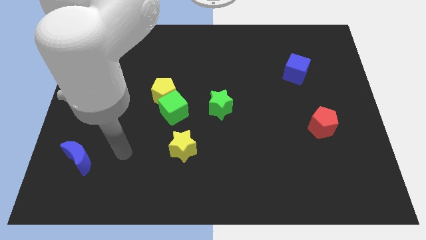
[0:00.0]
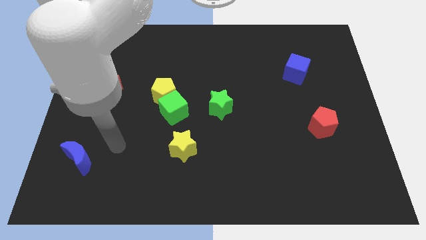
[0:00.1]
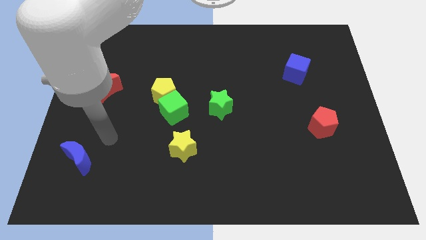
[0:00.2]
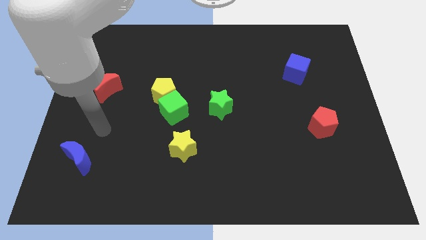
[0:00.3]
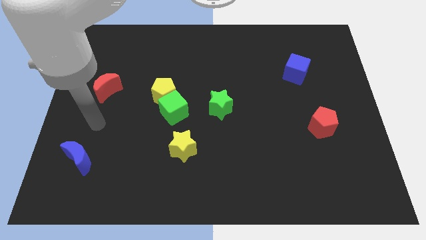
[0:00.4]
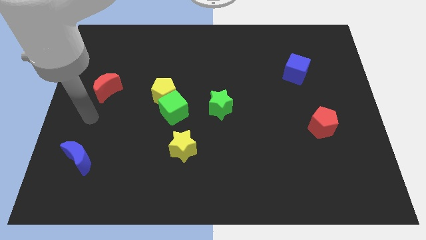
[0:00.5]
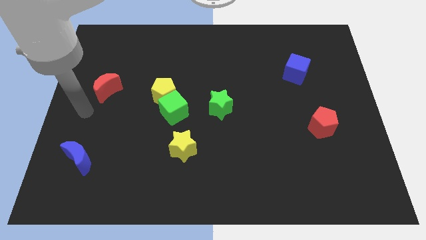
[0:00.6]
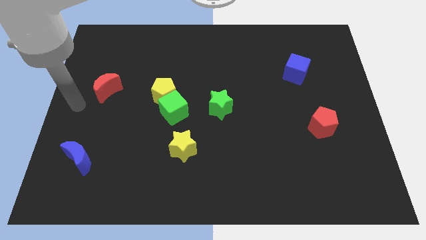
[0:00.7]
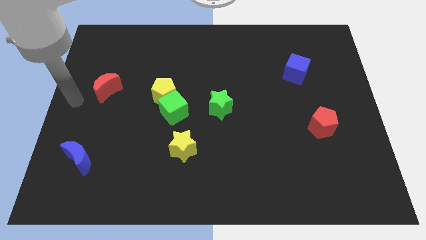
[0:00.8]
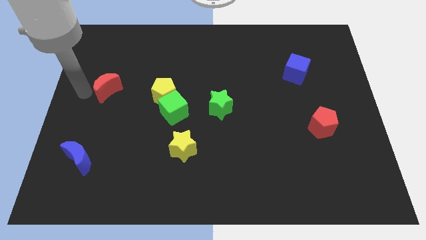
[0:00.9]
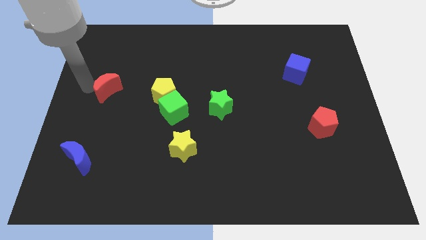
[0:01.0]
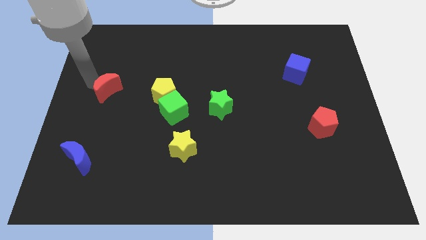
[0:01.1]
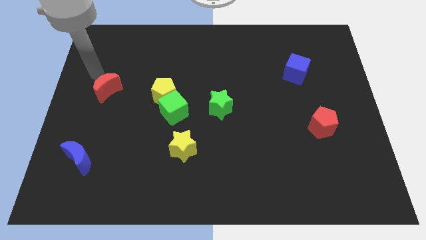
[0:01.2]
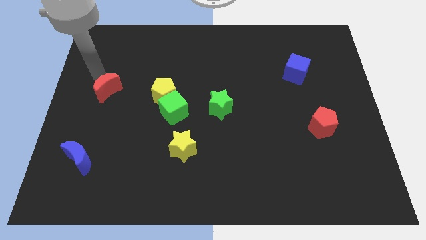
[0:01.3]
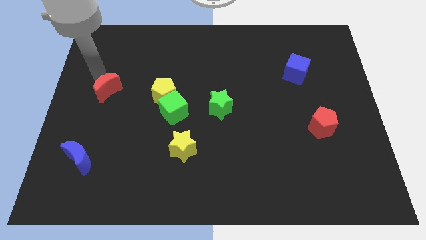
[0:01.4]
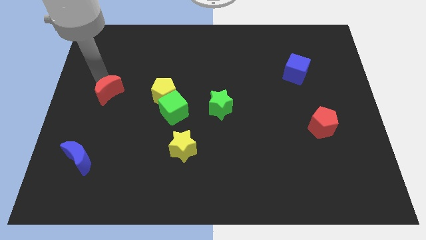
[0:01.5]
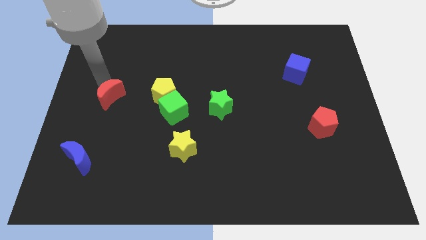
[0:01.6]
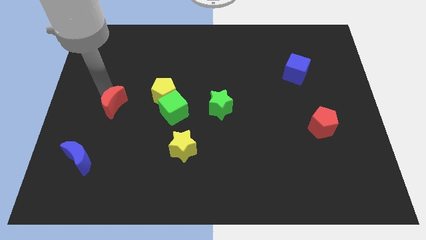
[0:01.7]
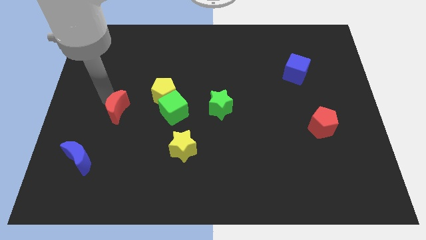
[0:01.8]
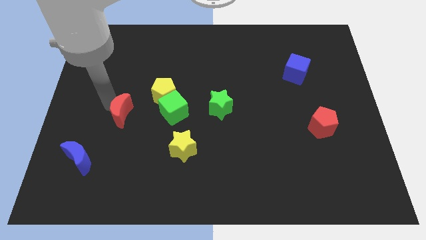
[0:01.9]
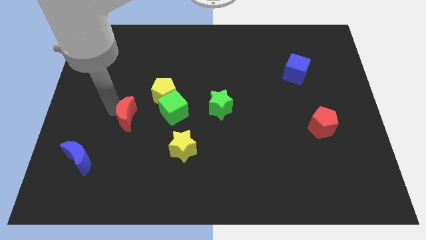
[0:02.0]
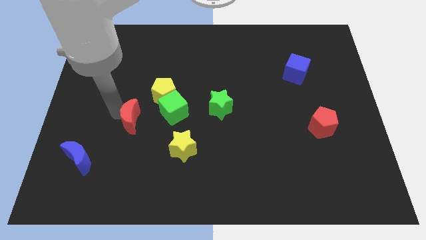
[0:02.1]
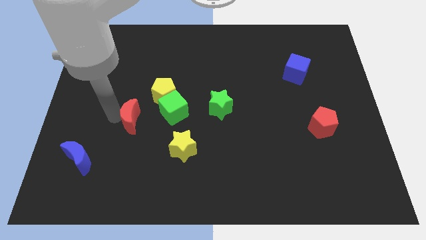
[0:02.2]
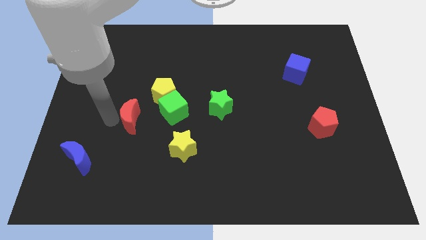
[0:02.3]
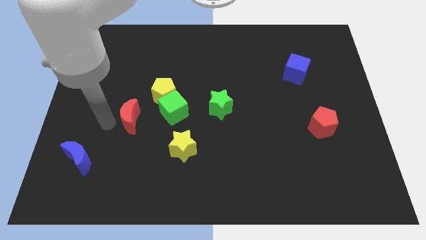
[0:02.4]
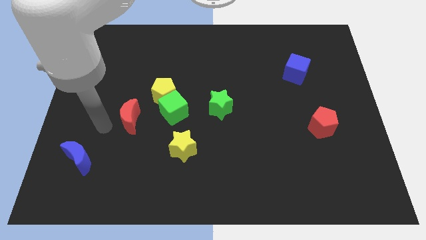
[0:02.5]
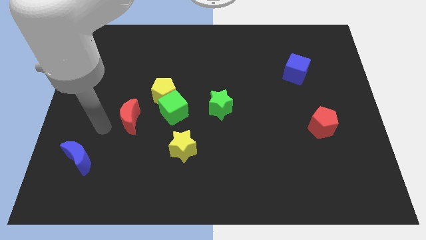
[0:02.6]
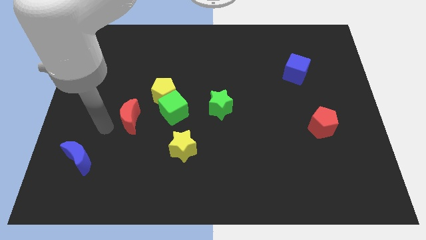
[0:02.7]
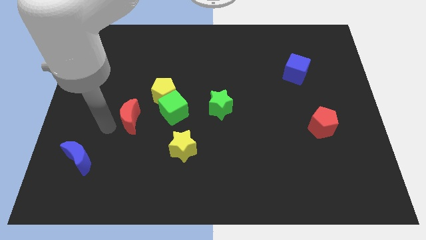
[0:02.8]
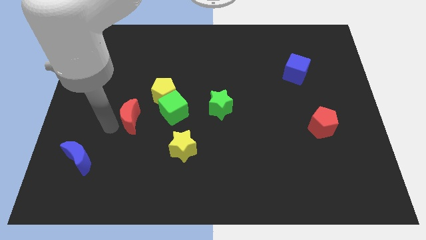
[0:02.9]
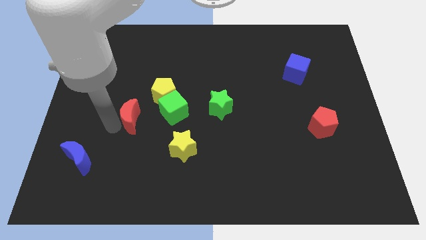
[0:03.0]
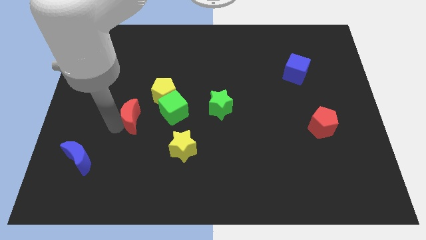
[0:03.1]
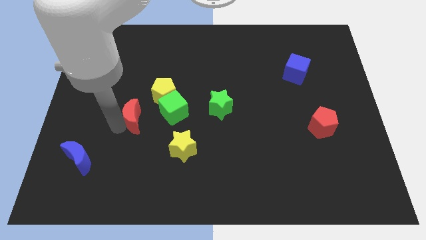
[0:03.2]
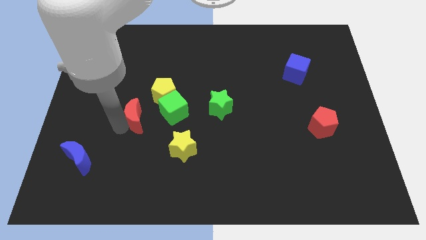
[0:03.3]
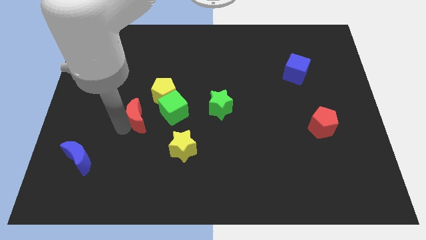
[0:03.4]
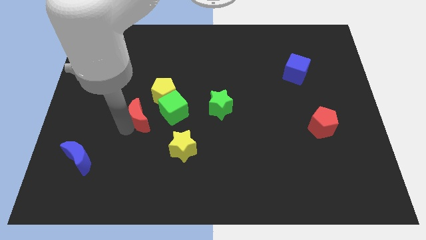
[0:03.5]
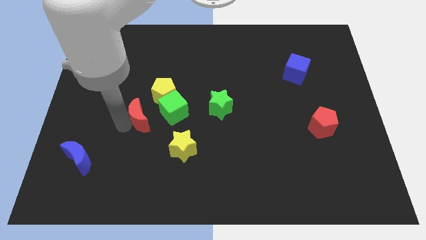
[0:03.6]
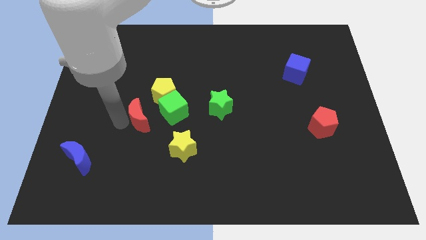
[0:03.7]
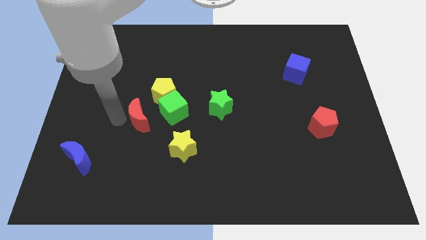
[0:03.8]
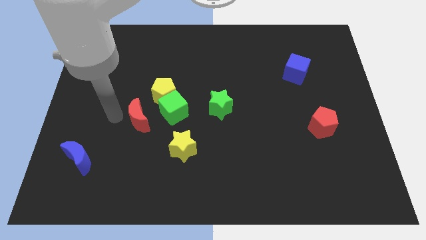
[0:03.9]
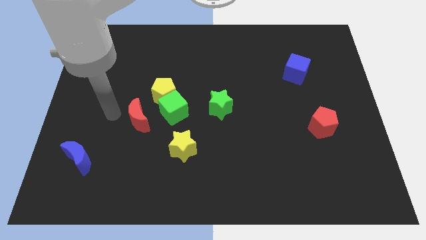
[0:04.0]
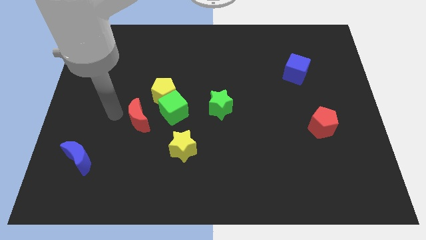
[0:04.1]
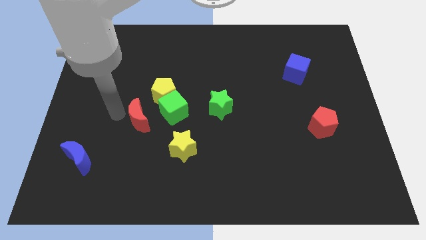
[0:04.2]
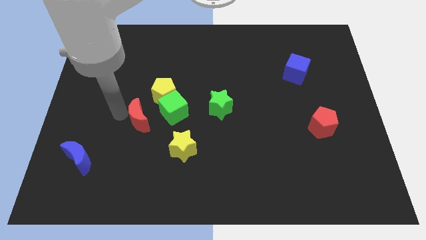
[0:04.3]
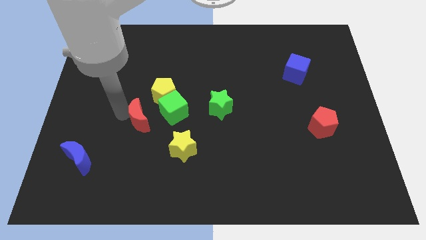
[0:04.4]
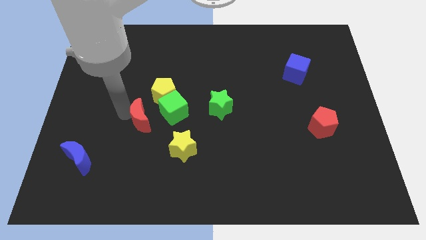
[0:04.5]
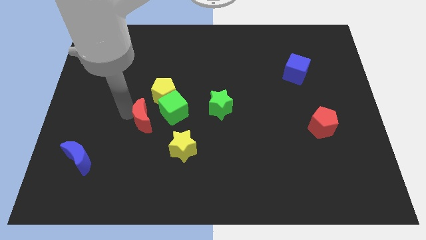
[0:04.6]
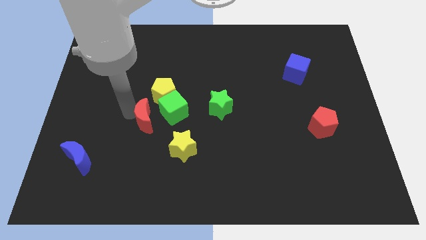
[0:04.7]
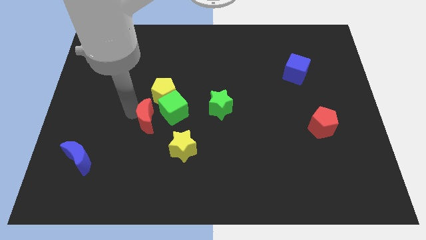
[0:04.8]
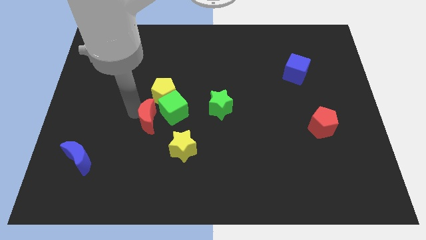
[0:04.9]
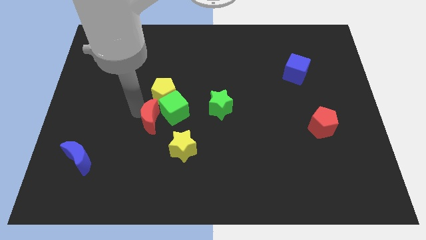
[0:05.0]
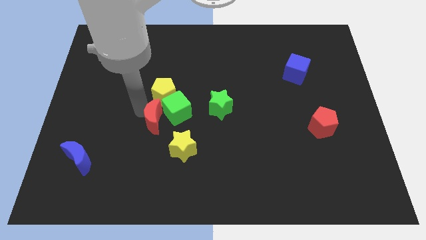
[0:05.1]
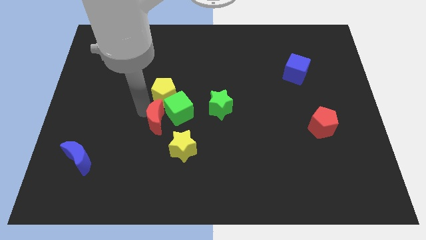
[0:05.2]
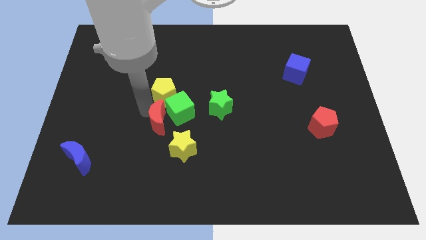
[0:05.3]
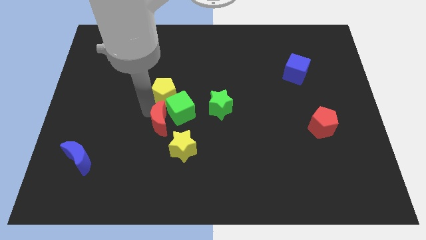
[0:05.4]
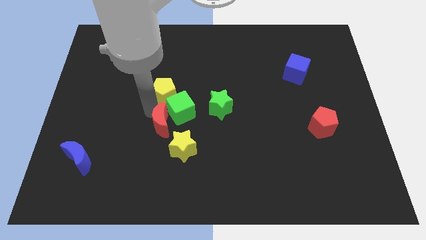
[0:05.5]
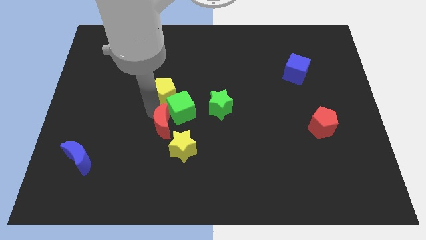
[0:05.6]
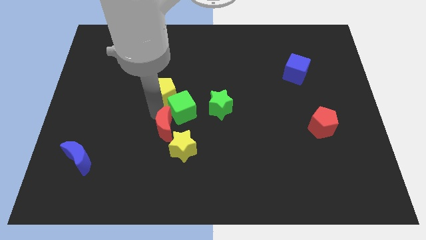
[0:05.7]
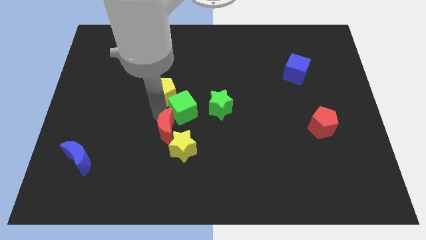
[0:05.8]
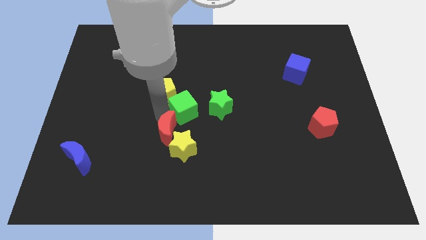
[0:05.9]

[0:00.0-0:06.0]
move the red moon next to the yellow star

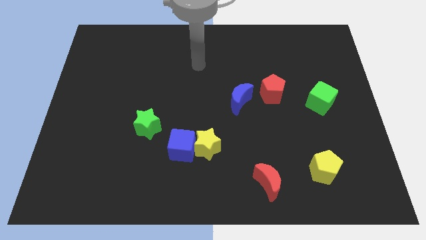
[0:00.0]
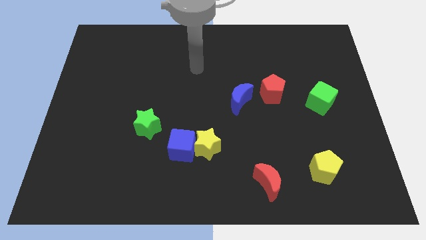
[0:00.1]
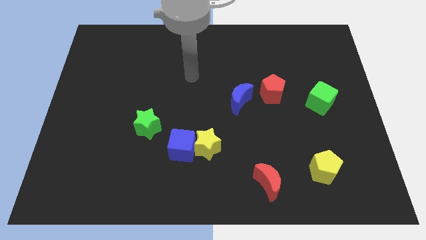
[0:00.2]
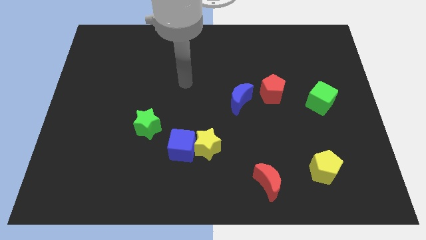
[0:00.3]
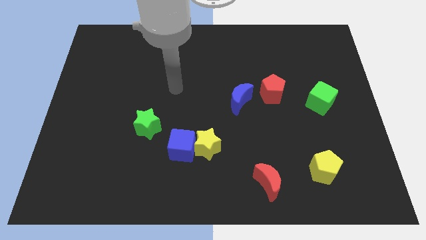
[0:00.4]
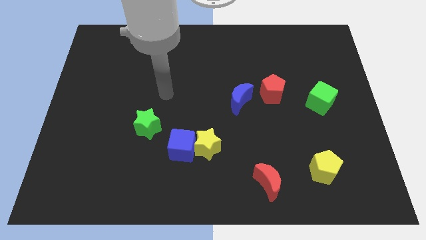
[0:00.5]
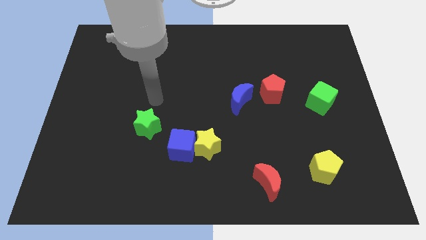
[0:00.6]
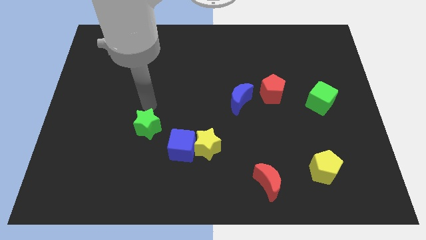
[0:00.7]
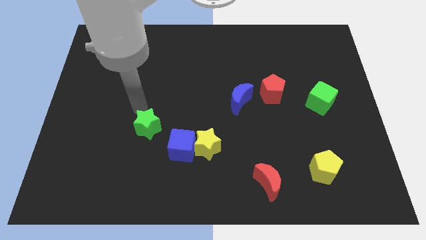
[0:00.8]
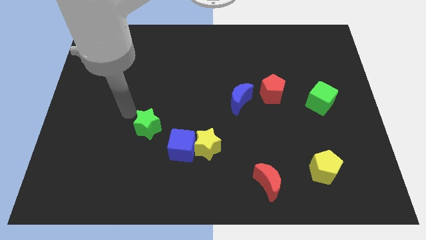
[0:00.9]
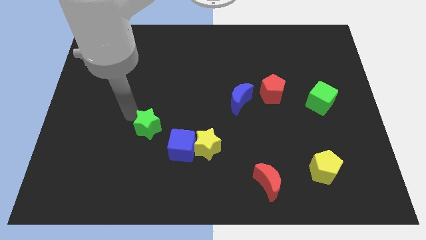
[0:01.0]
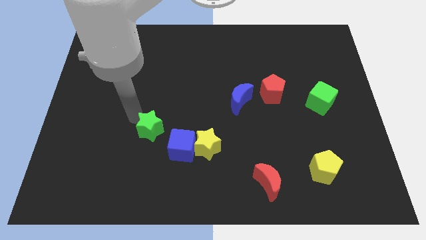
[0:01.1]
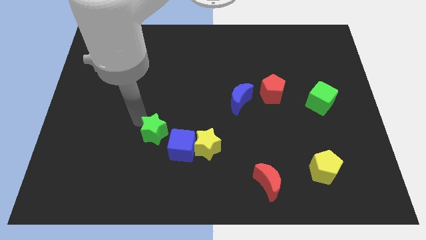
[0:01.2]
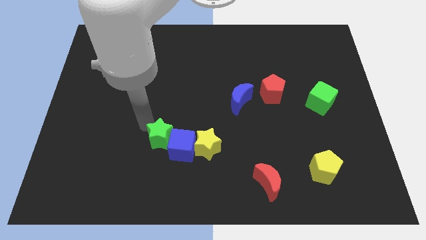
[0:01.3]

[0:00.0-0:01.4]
slide the green star to the blue cube
